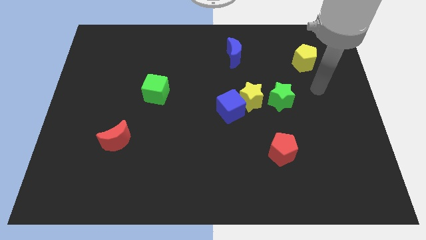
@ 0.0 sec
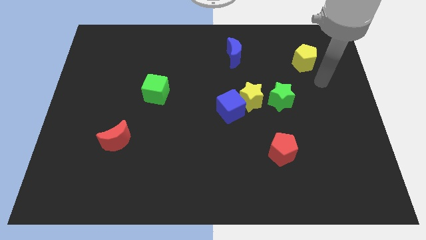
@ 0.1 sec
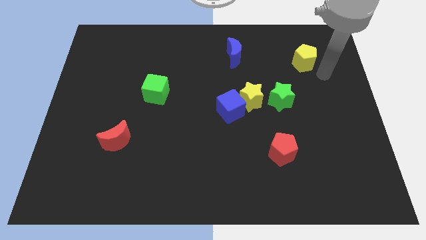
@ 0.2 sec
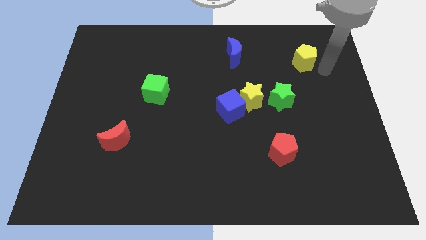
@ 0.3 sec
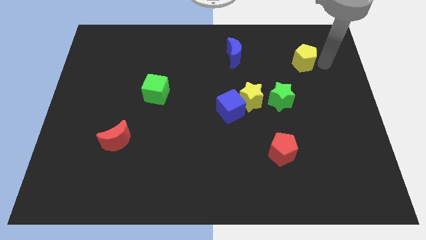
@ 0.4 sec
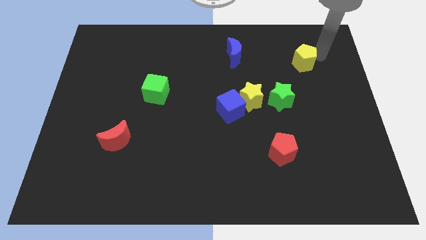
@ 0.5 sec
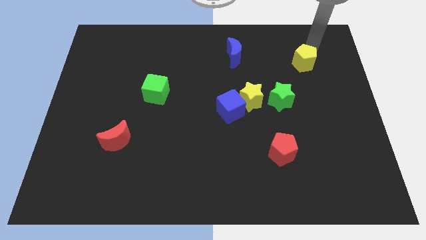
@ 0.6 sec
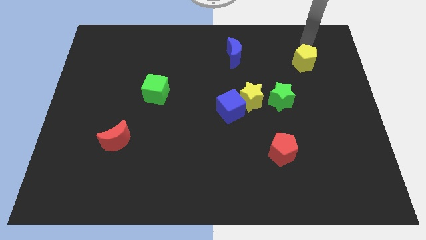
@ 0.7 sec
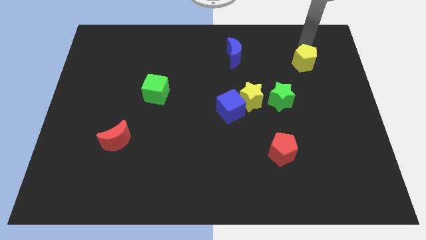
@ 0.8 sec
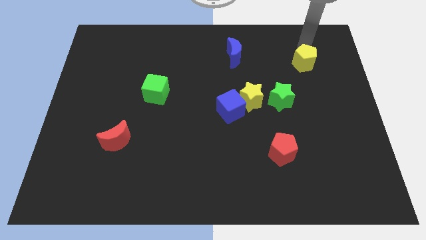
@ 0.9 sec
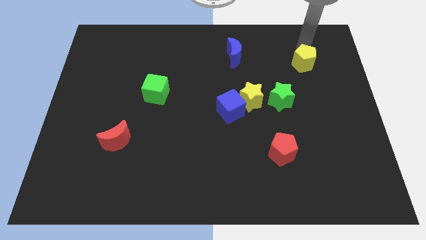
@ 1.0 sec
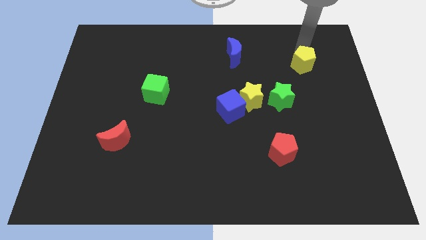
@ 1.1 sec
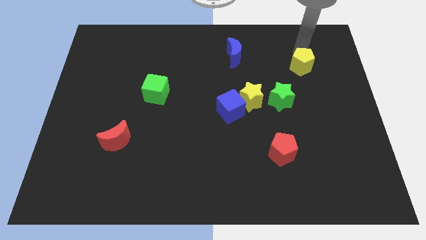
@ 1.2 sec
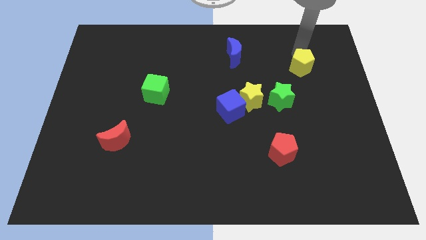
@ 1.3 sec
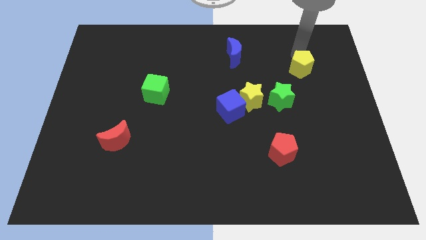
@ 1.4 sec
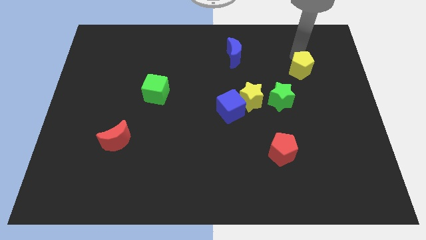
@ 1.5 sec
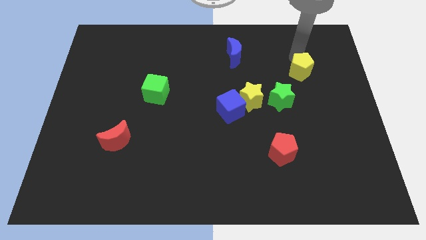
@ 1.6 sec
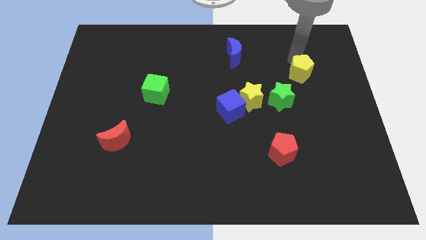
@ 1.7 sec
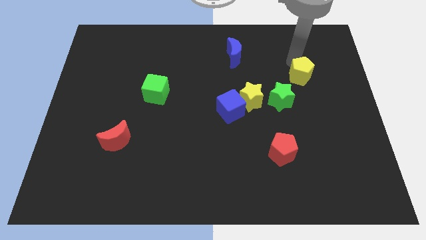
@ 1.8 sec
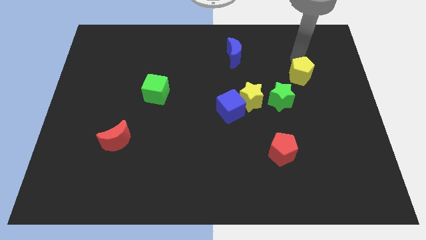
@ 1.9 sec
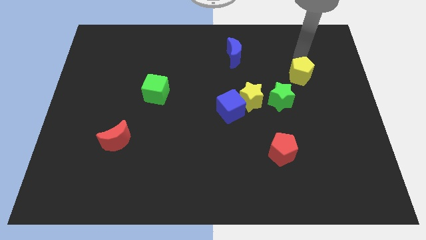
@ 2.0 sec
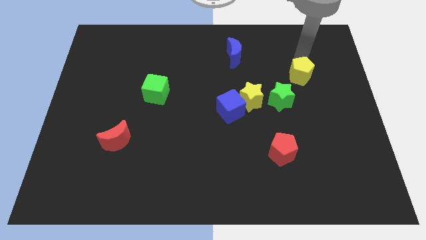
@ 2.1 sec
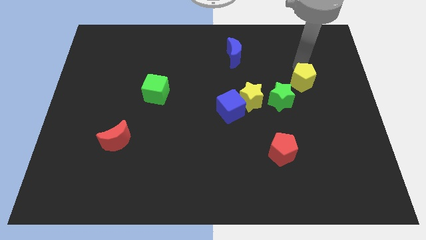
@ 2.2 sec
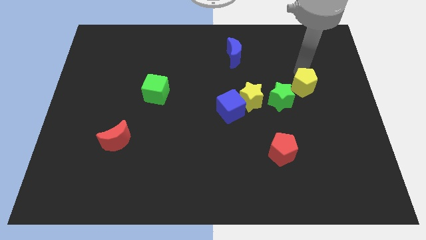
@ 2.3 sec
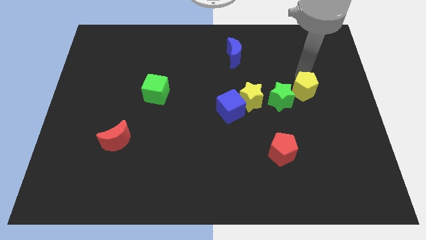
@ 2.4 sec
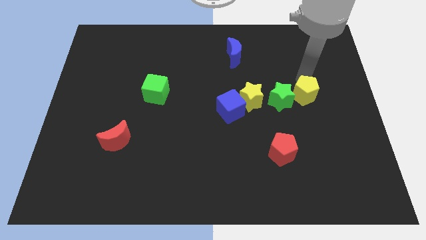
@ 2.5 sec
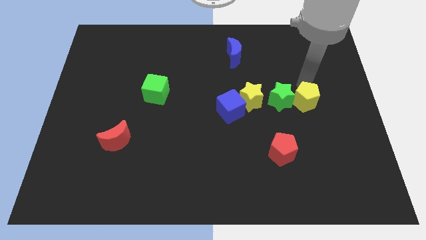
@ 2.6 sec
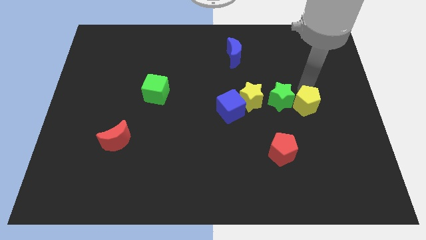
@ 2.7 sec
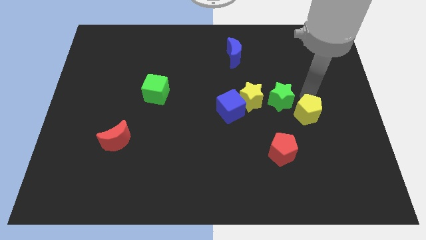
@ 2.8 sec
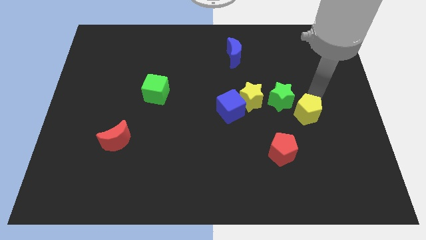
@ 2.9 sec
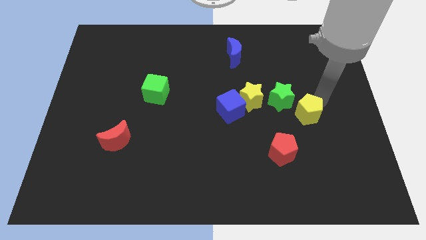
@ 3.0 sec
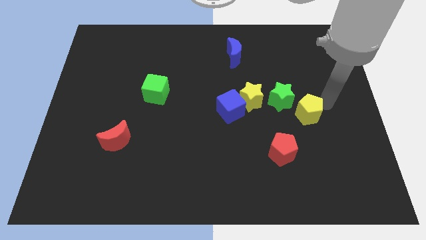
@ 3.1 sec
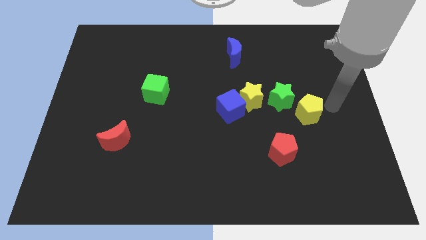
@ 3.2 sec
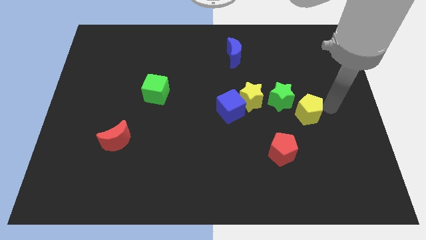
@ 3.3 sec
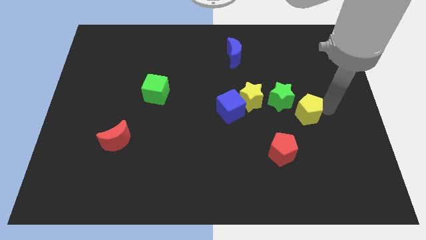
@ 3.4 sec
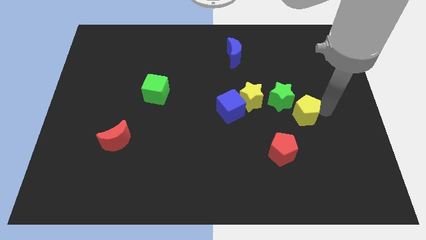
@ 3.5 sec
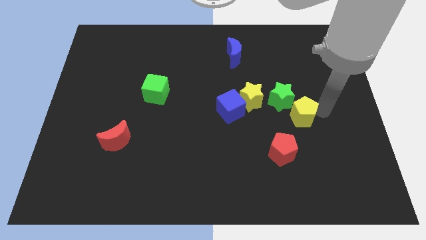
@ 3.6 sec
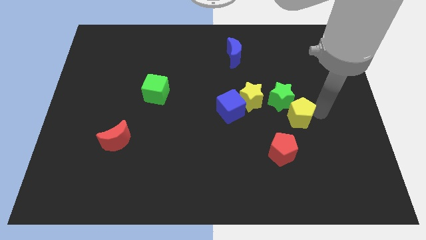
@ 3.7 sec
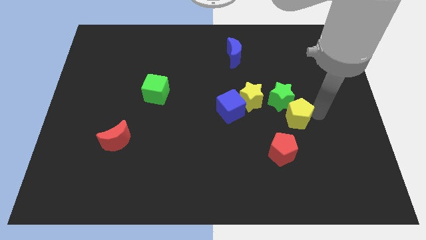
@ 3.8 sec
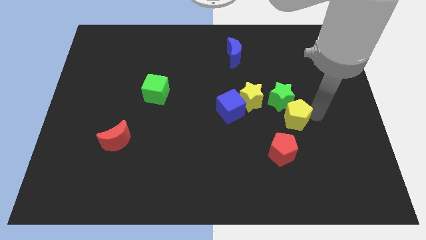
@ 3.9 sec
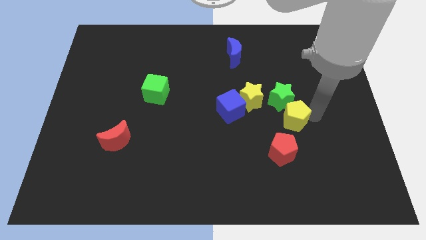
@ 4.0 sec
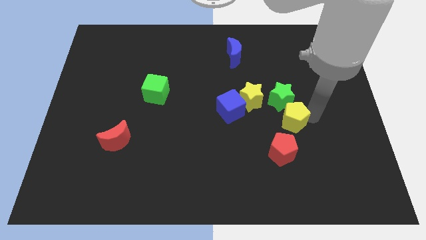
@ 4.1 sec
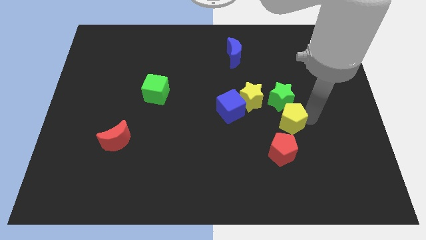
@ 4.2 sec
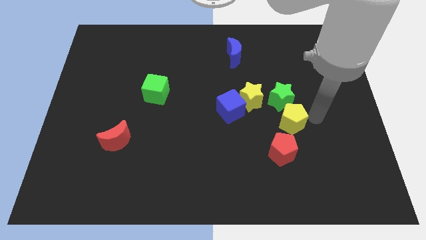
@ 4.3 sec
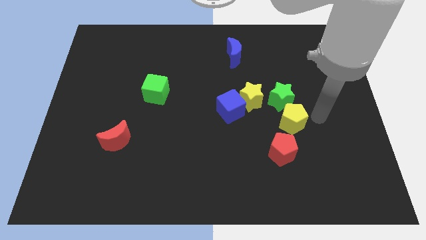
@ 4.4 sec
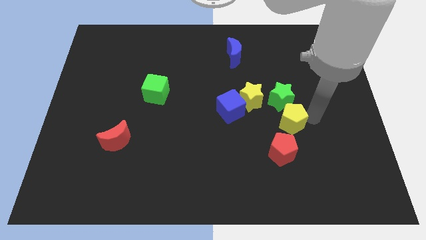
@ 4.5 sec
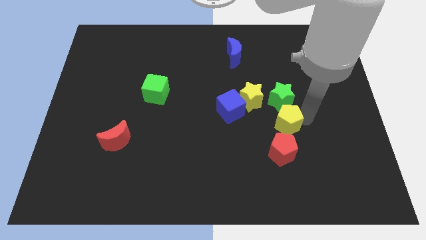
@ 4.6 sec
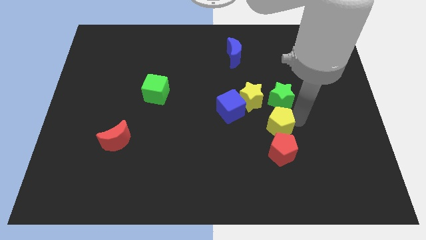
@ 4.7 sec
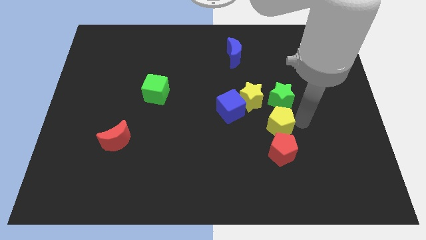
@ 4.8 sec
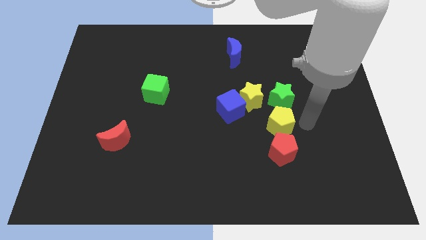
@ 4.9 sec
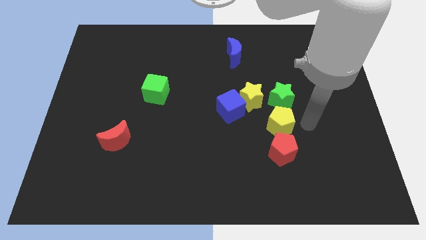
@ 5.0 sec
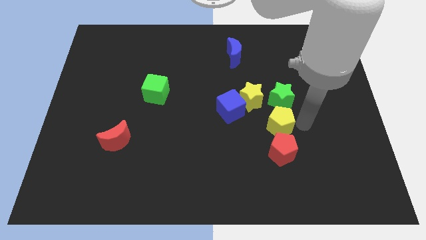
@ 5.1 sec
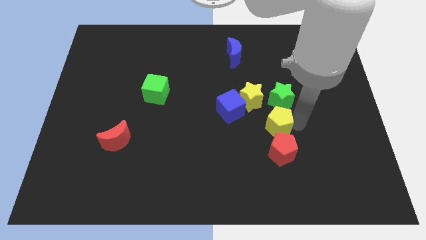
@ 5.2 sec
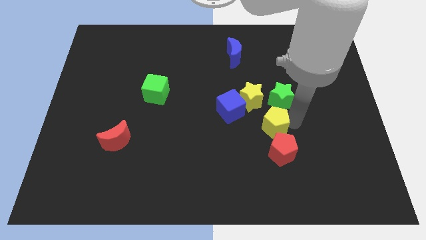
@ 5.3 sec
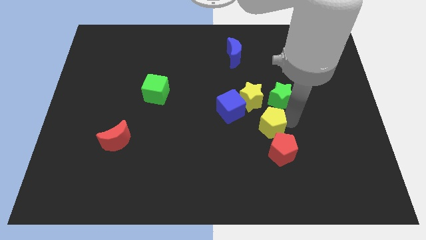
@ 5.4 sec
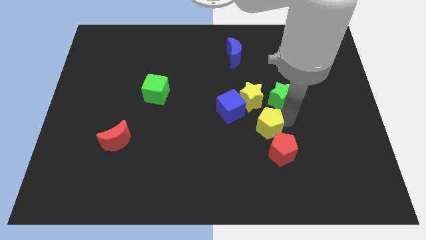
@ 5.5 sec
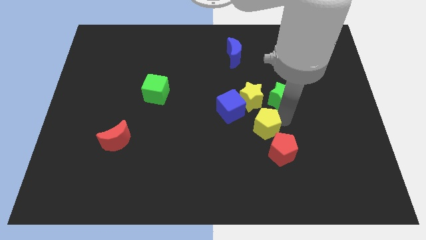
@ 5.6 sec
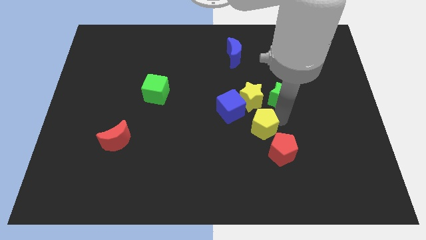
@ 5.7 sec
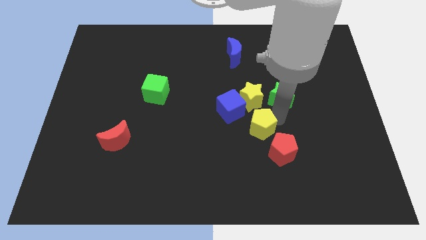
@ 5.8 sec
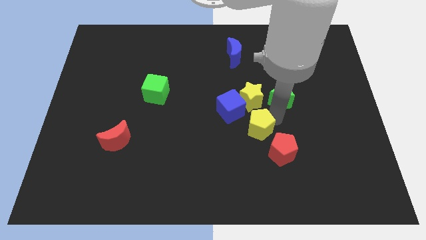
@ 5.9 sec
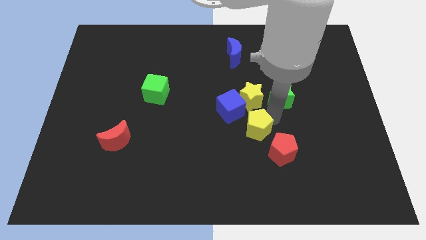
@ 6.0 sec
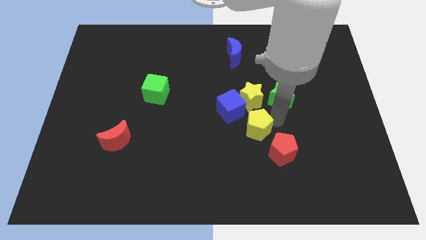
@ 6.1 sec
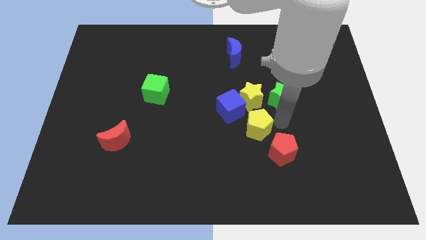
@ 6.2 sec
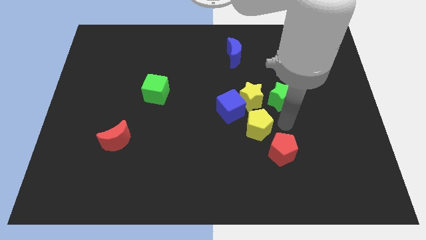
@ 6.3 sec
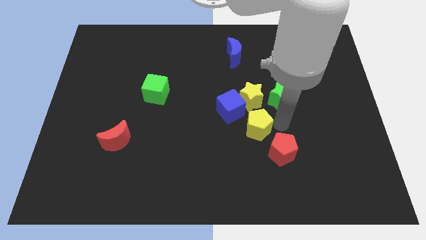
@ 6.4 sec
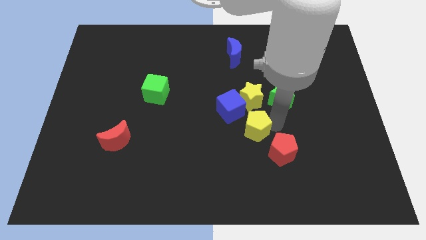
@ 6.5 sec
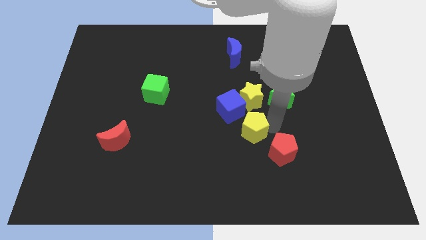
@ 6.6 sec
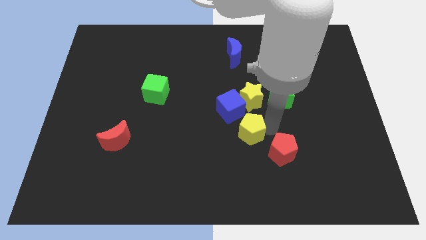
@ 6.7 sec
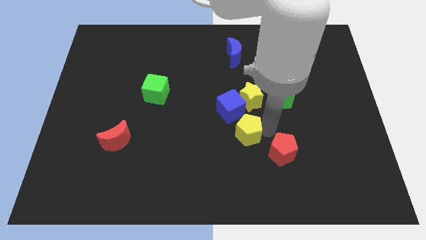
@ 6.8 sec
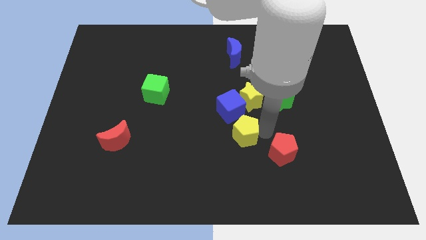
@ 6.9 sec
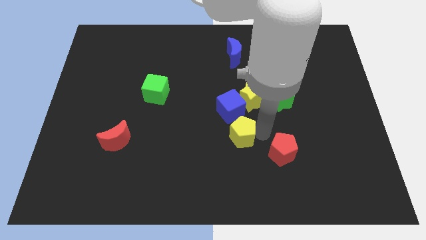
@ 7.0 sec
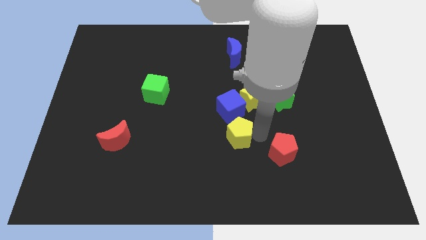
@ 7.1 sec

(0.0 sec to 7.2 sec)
put the yellow pentagon to the bottom left side of the yellow star
